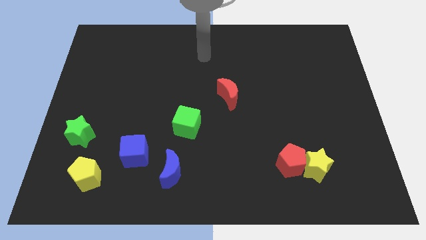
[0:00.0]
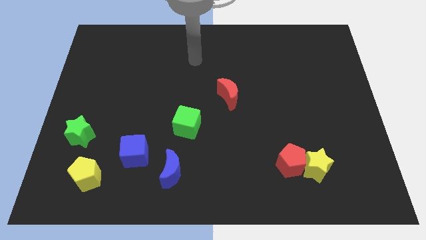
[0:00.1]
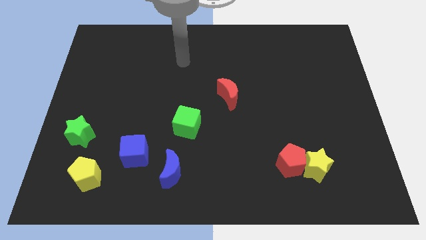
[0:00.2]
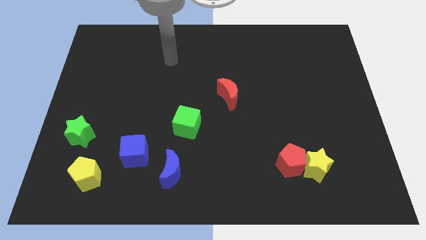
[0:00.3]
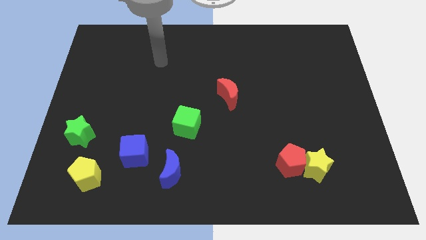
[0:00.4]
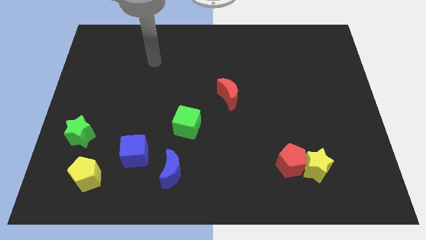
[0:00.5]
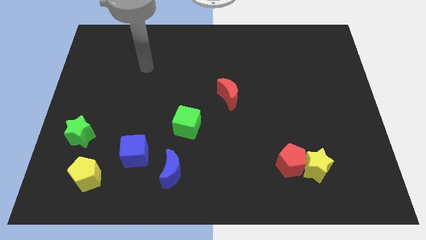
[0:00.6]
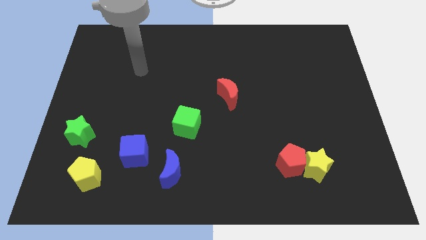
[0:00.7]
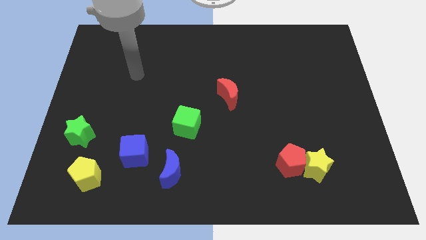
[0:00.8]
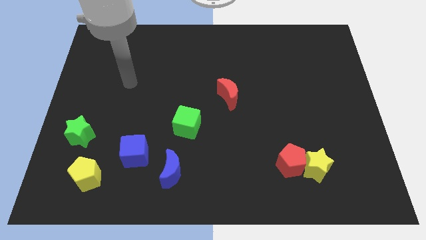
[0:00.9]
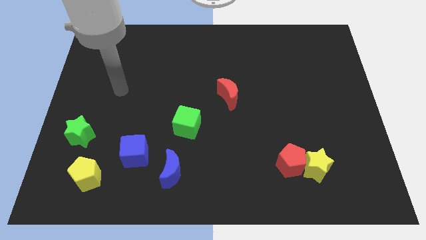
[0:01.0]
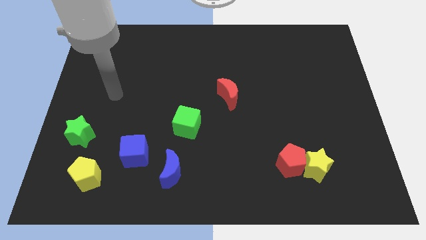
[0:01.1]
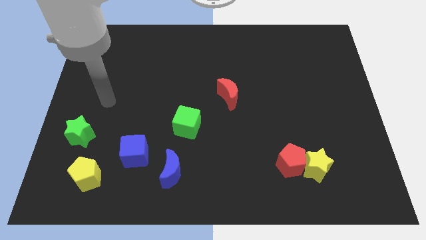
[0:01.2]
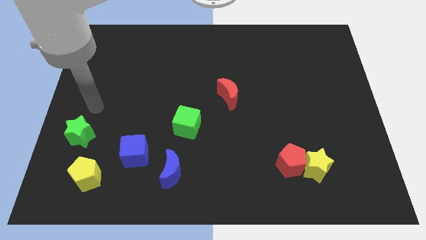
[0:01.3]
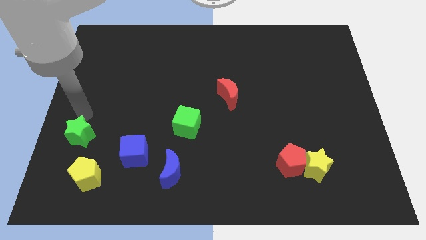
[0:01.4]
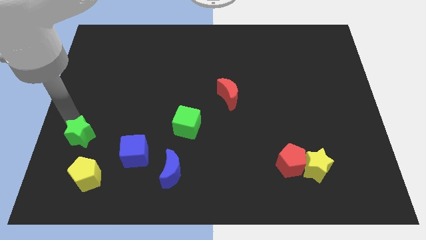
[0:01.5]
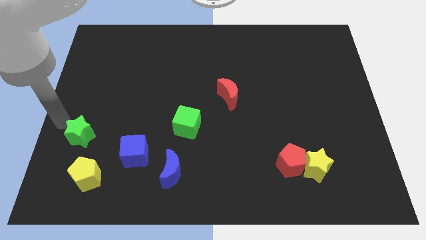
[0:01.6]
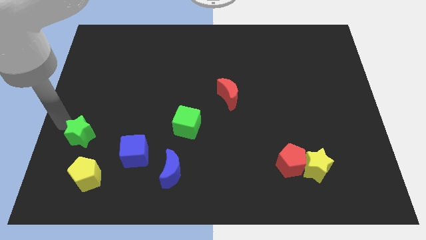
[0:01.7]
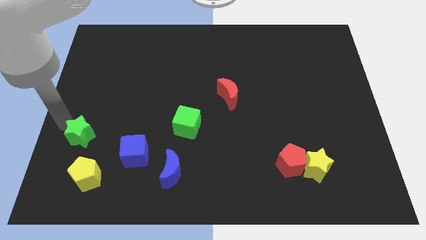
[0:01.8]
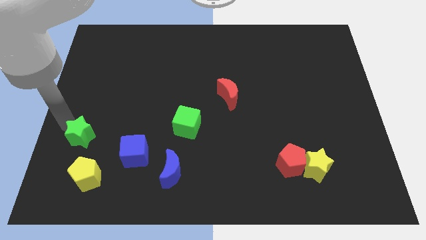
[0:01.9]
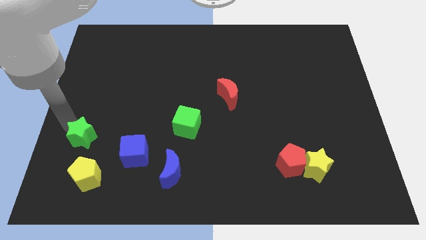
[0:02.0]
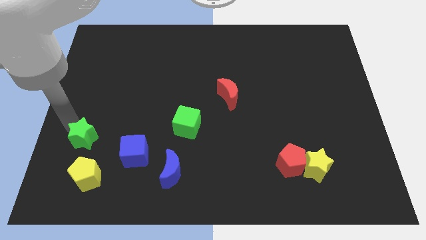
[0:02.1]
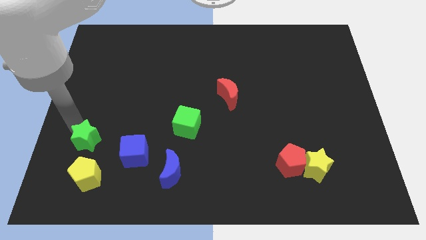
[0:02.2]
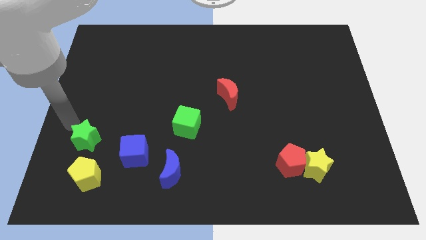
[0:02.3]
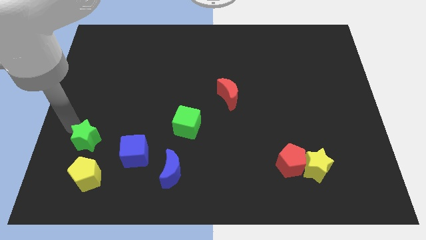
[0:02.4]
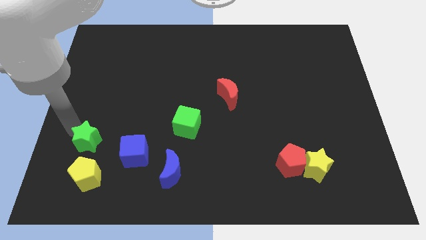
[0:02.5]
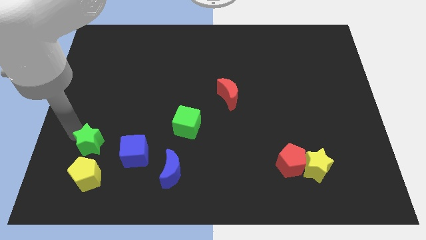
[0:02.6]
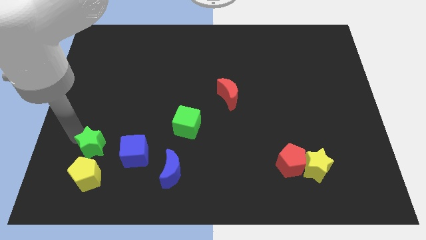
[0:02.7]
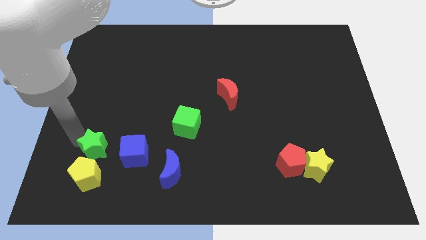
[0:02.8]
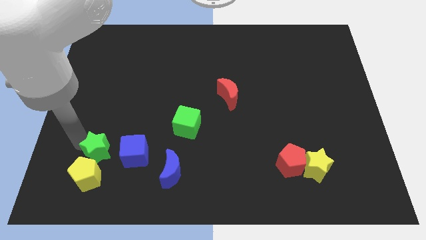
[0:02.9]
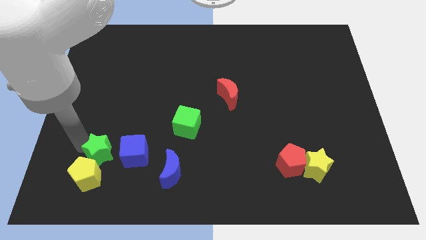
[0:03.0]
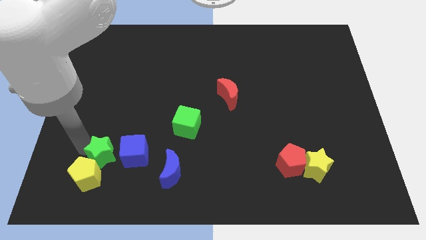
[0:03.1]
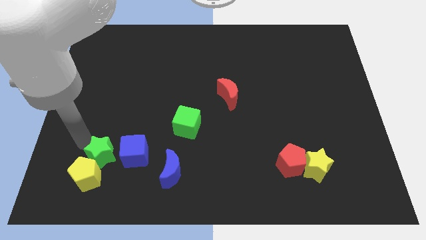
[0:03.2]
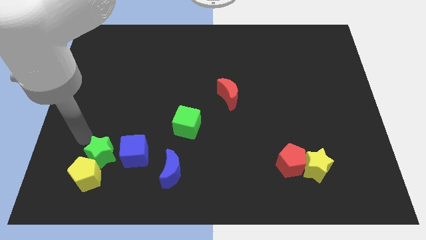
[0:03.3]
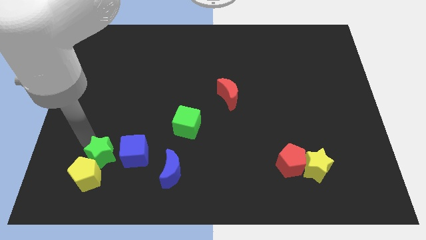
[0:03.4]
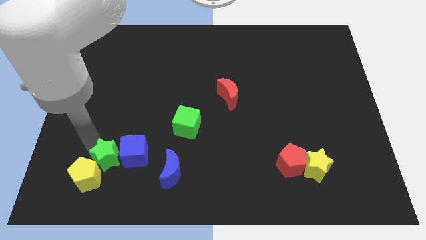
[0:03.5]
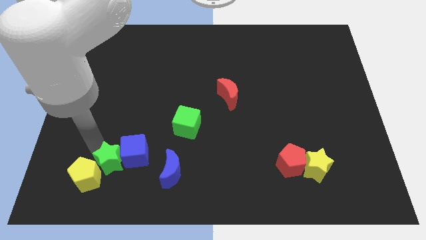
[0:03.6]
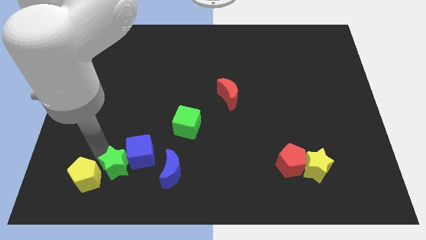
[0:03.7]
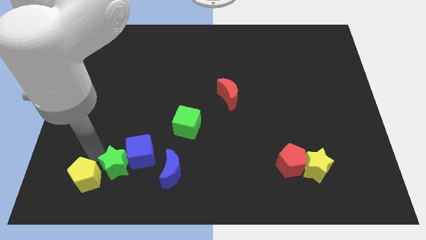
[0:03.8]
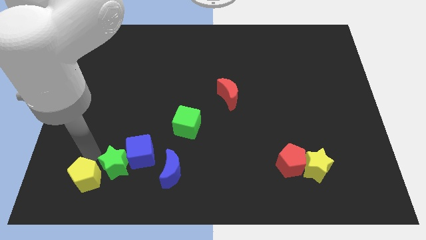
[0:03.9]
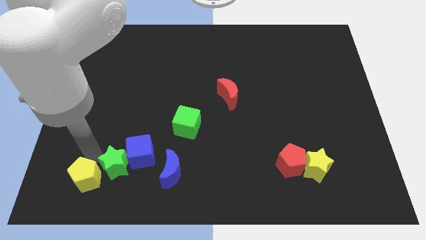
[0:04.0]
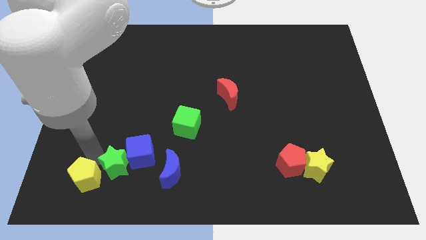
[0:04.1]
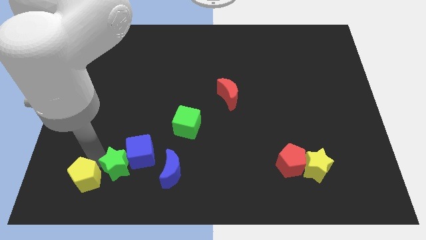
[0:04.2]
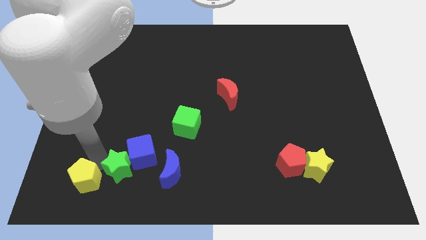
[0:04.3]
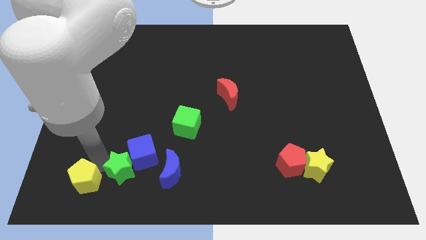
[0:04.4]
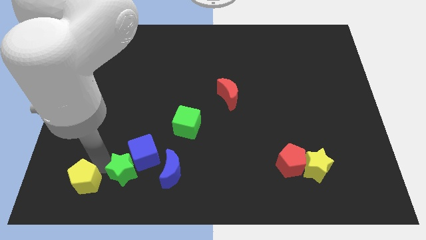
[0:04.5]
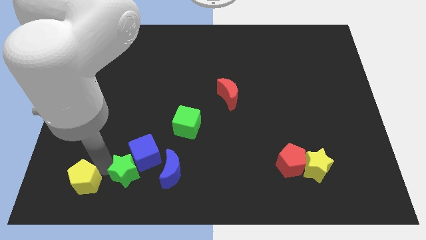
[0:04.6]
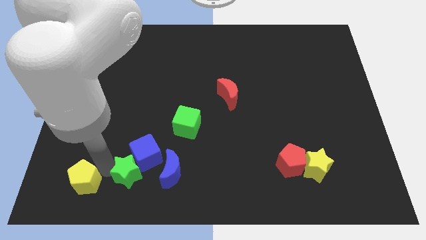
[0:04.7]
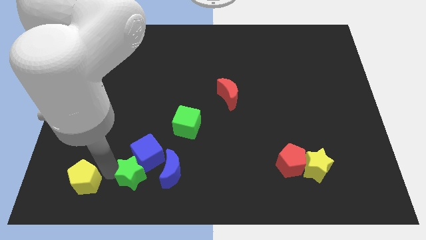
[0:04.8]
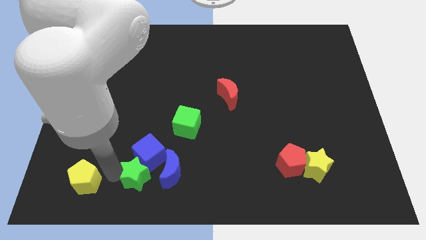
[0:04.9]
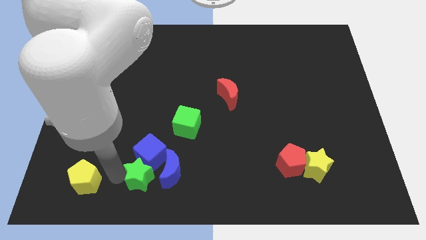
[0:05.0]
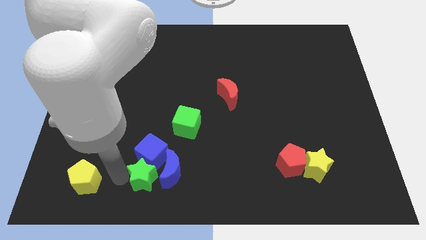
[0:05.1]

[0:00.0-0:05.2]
put the green star next to the blue moon
